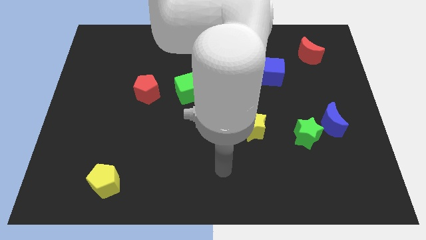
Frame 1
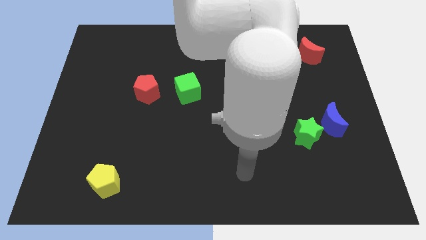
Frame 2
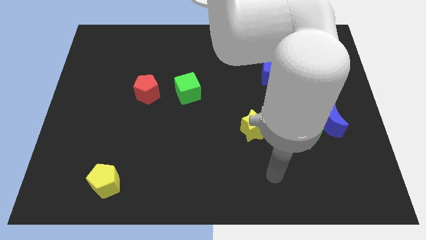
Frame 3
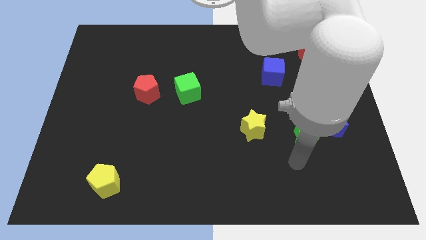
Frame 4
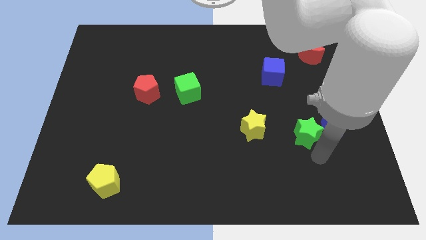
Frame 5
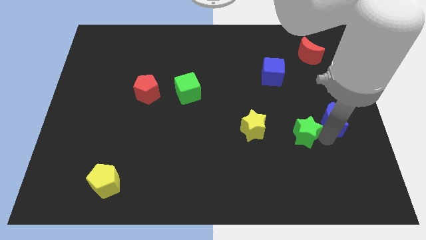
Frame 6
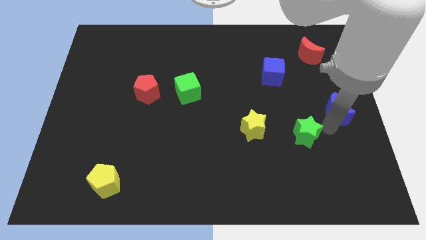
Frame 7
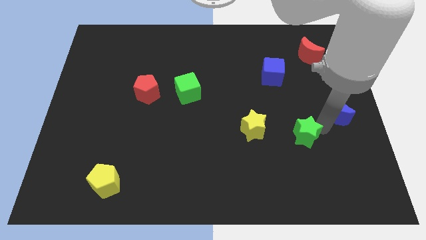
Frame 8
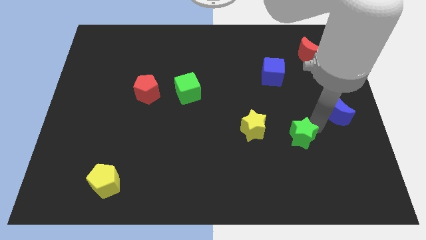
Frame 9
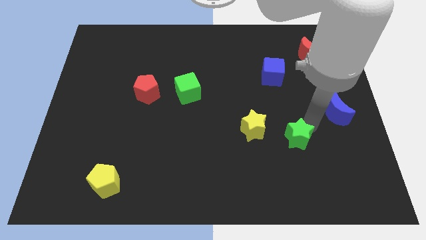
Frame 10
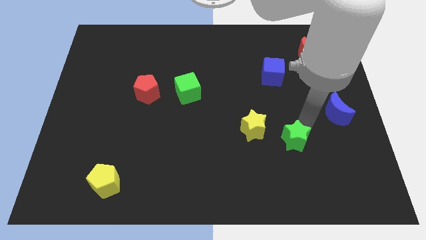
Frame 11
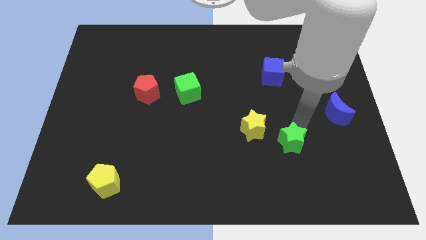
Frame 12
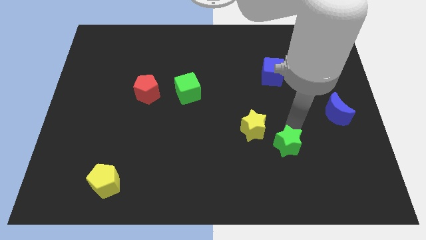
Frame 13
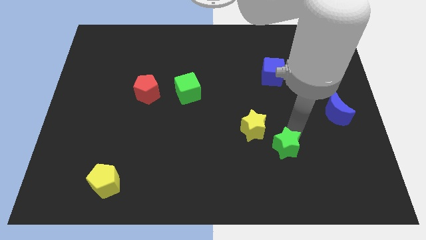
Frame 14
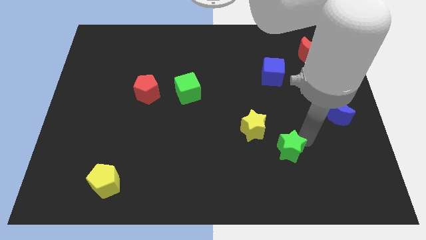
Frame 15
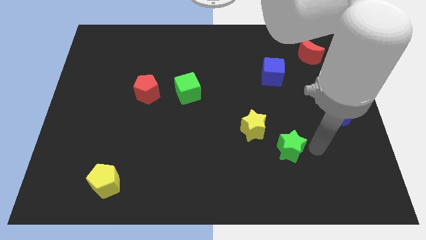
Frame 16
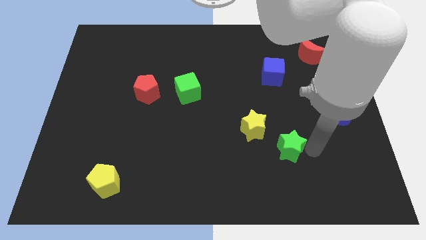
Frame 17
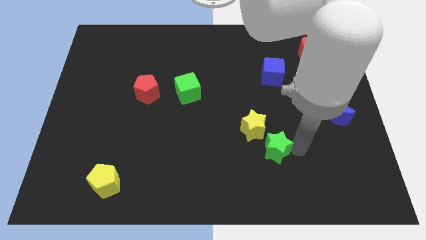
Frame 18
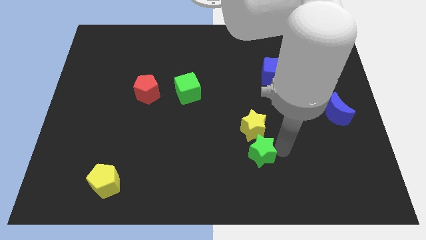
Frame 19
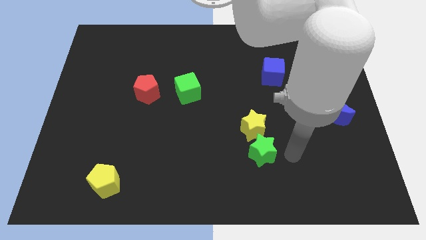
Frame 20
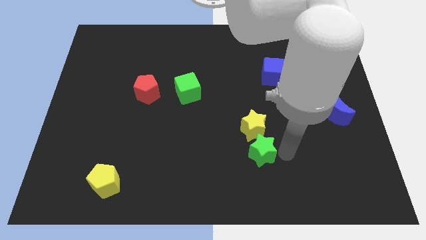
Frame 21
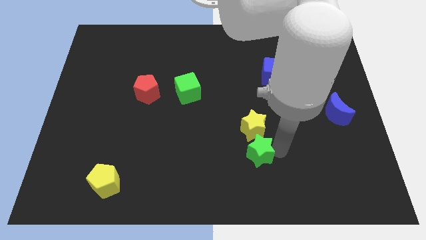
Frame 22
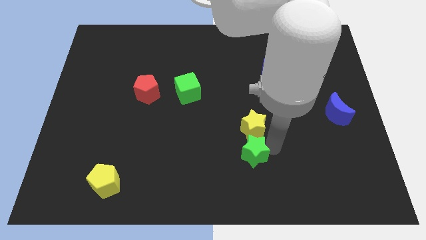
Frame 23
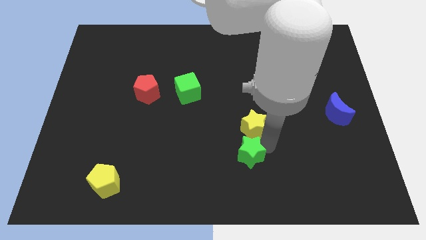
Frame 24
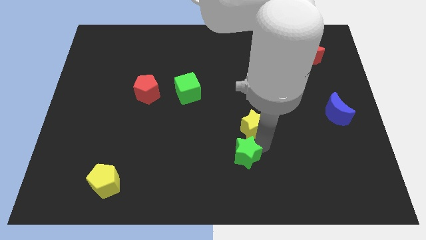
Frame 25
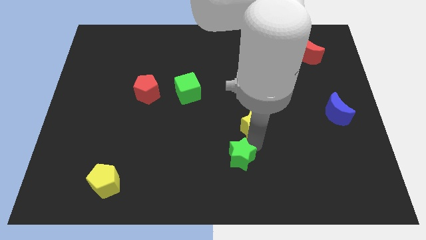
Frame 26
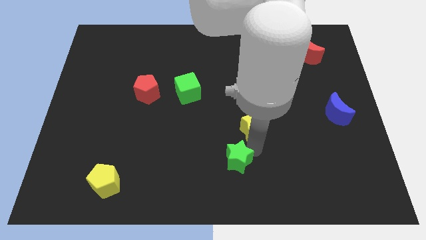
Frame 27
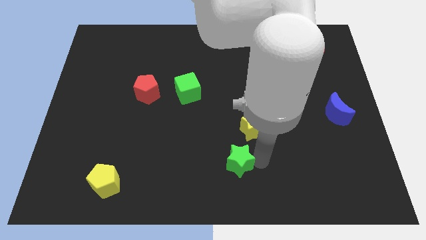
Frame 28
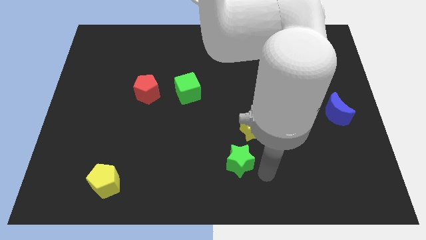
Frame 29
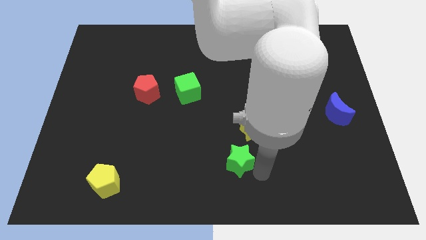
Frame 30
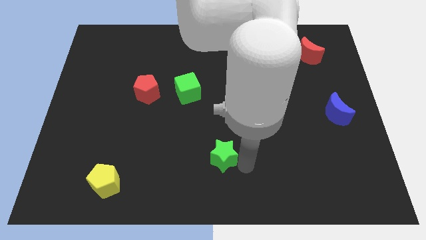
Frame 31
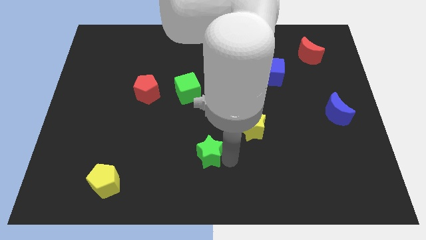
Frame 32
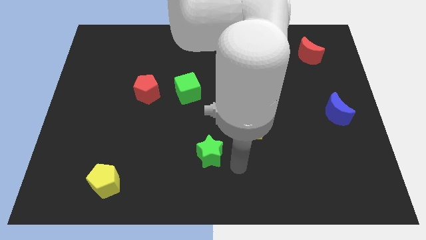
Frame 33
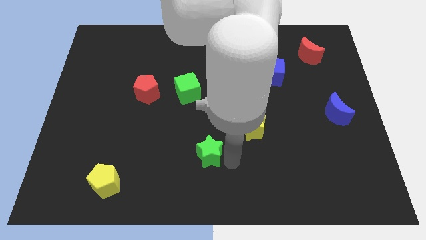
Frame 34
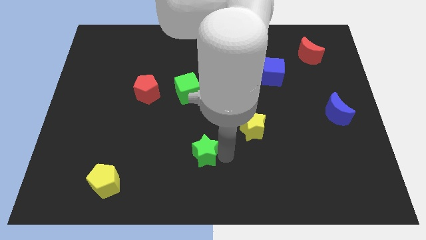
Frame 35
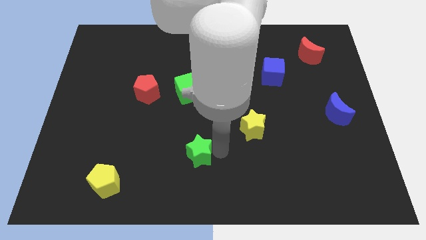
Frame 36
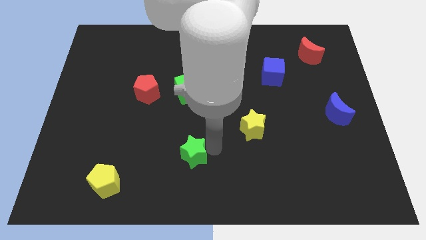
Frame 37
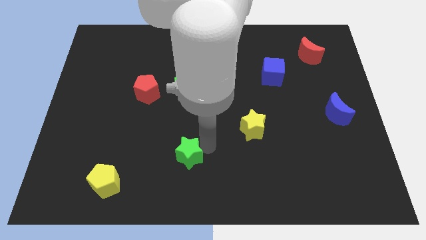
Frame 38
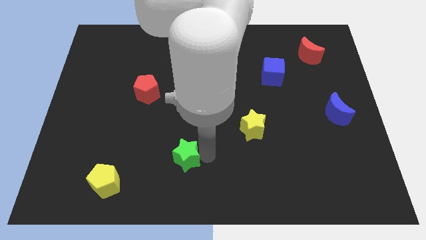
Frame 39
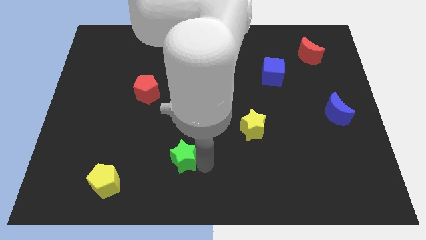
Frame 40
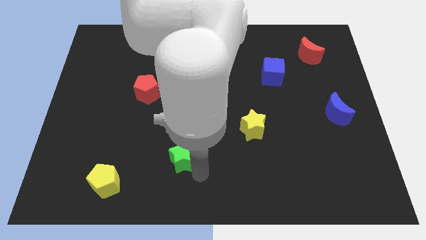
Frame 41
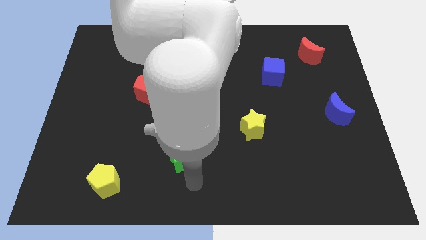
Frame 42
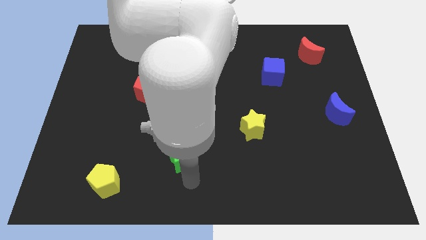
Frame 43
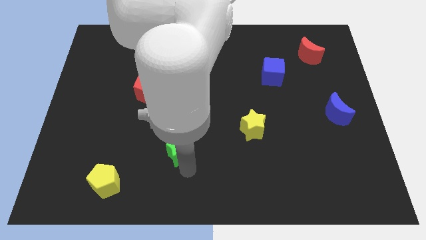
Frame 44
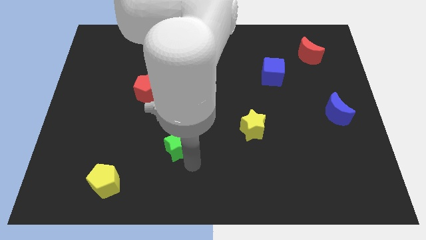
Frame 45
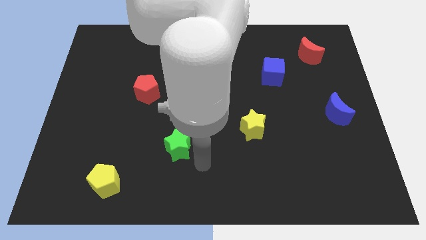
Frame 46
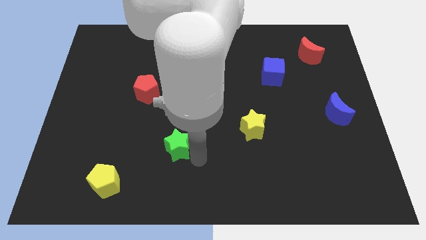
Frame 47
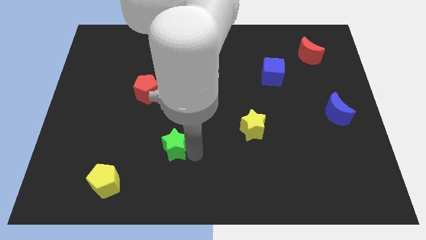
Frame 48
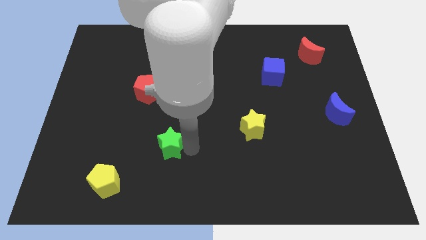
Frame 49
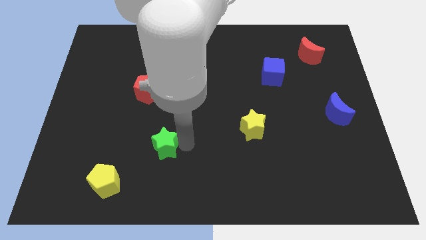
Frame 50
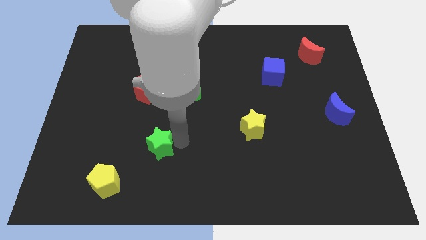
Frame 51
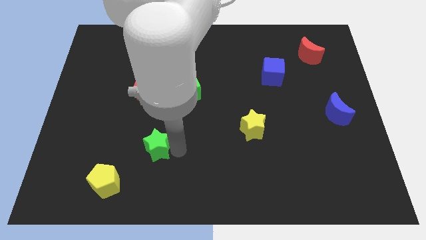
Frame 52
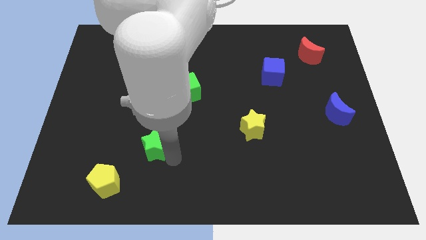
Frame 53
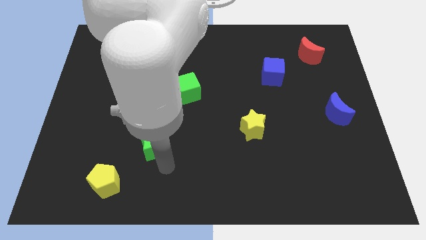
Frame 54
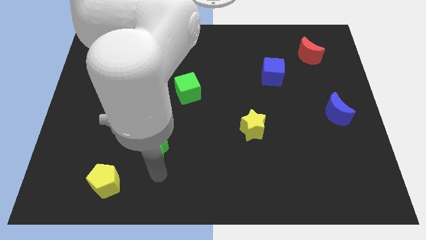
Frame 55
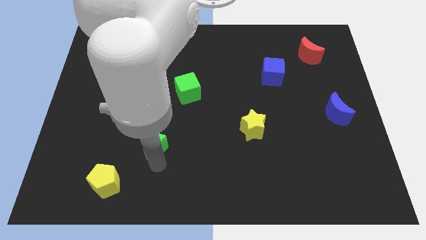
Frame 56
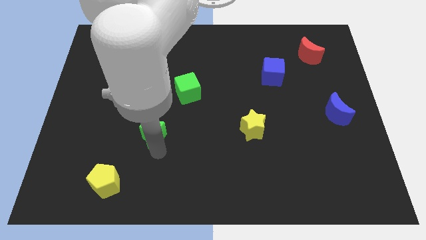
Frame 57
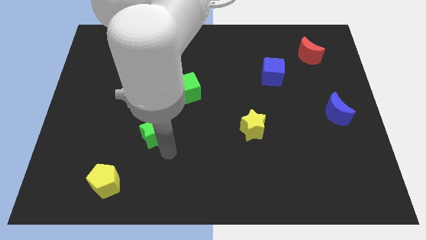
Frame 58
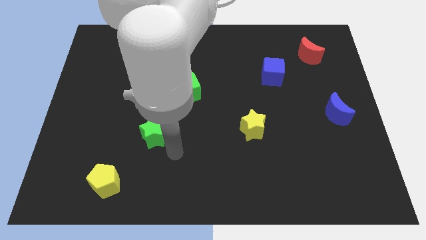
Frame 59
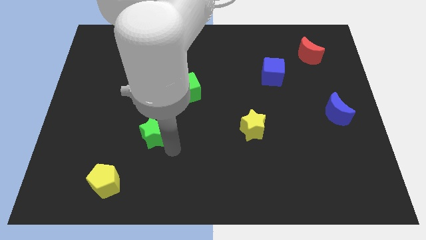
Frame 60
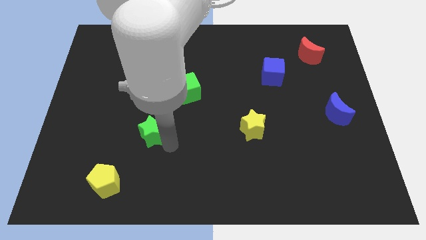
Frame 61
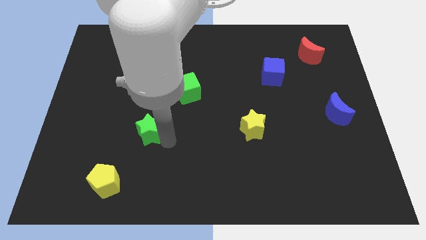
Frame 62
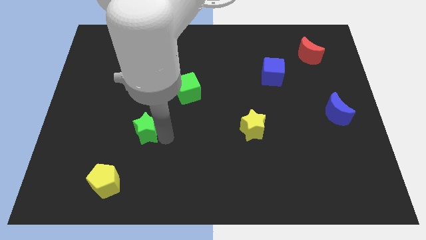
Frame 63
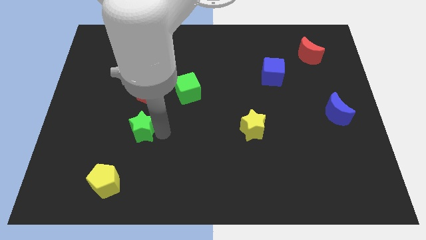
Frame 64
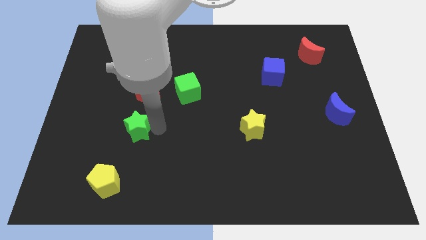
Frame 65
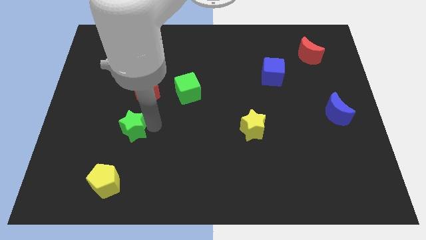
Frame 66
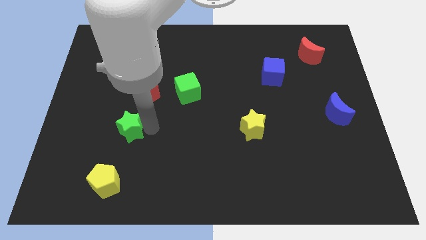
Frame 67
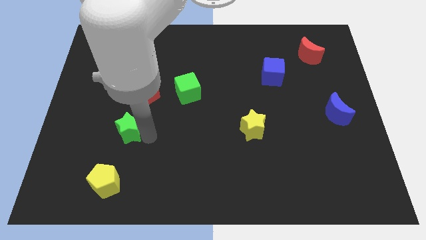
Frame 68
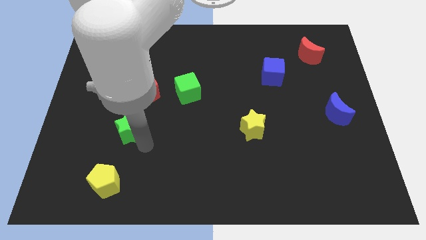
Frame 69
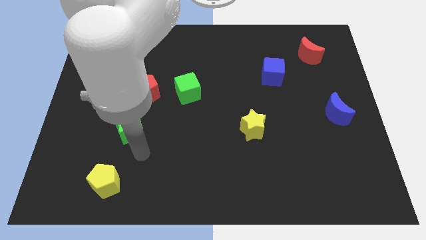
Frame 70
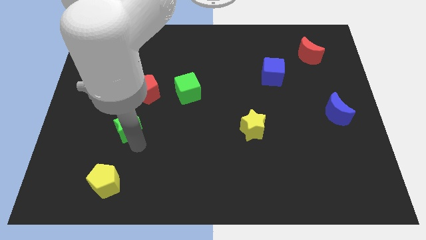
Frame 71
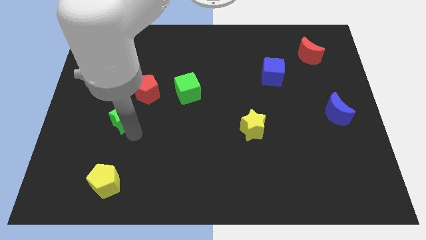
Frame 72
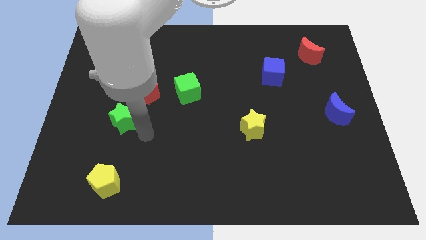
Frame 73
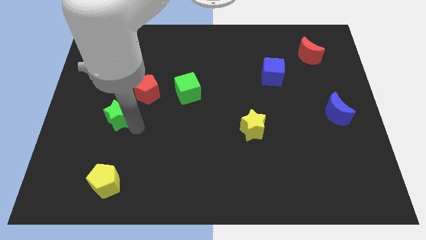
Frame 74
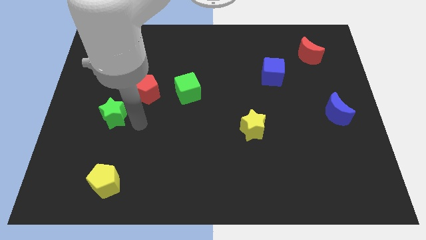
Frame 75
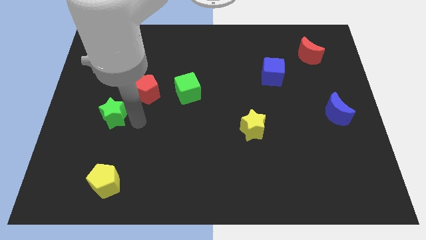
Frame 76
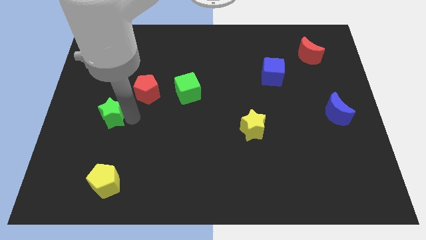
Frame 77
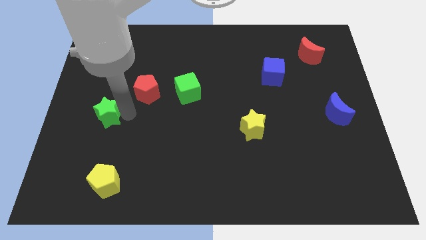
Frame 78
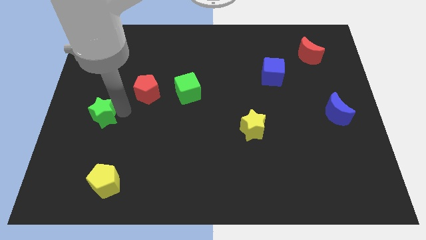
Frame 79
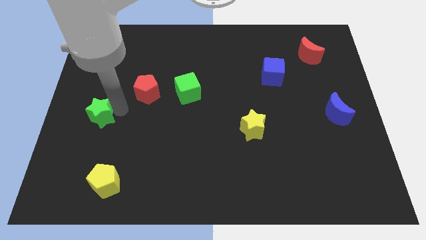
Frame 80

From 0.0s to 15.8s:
slide the green star to the left side of the board
